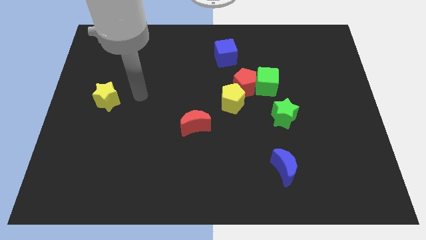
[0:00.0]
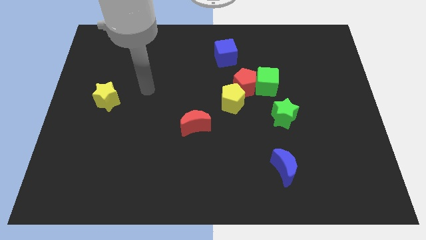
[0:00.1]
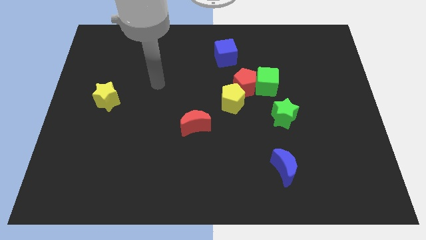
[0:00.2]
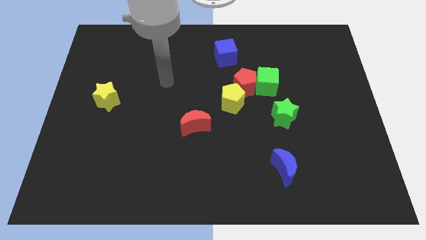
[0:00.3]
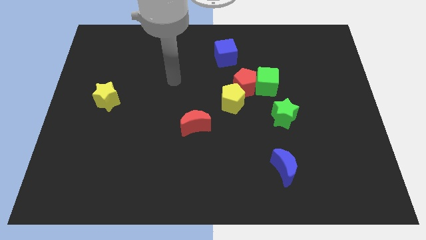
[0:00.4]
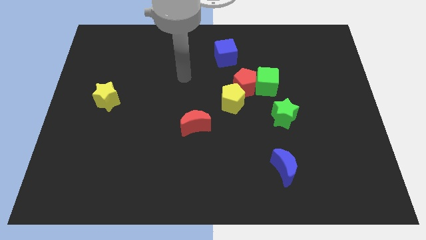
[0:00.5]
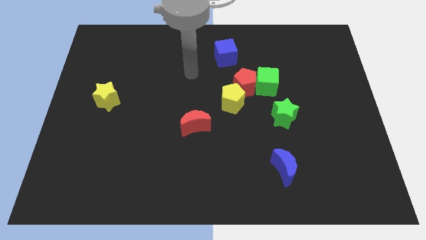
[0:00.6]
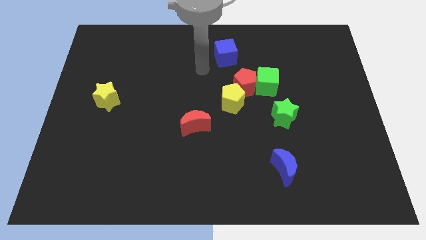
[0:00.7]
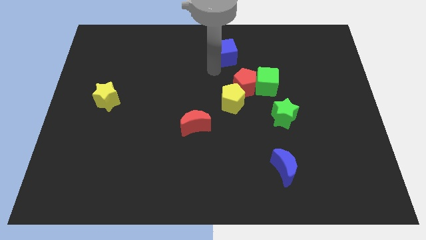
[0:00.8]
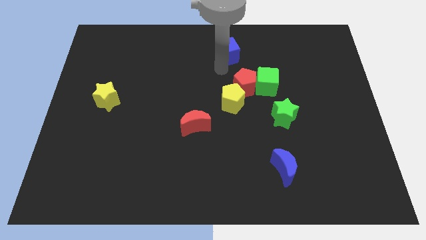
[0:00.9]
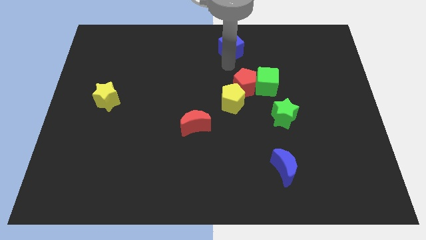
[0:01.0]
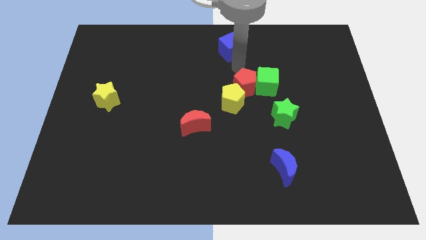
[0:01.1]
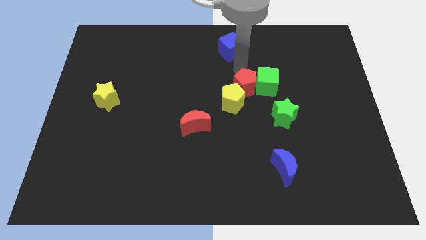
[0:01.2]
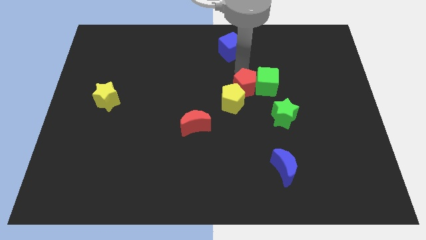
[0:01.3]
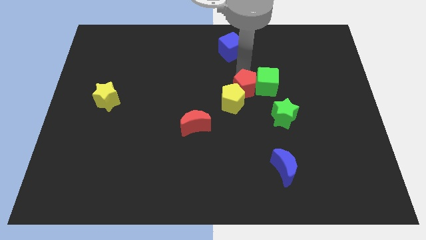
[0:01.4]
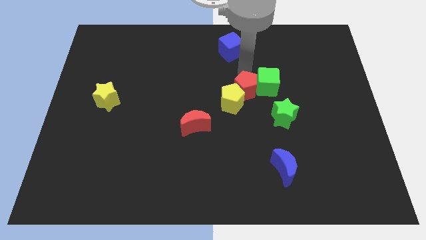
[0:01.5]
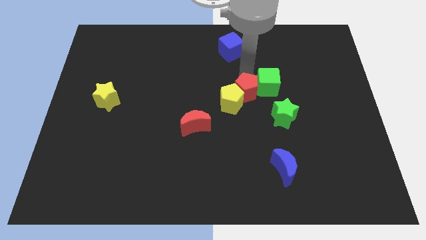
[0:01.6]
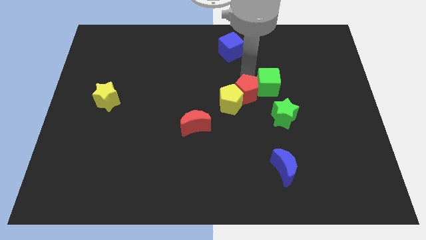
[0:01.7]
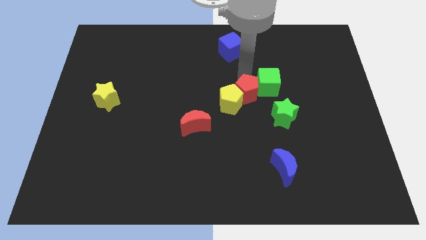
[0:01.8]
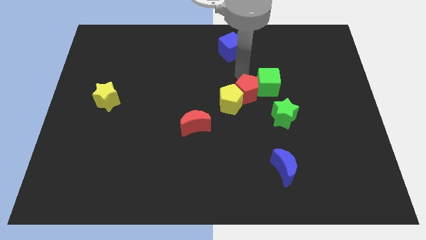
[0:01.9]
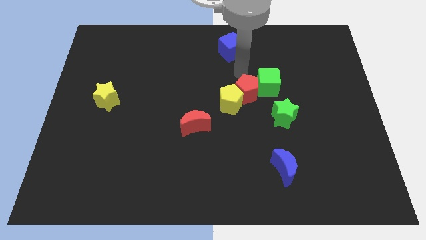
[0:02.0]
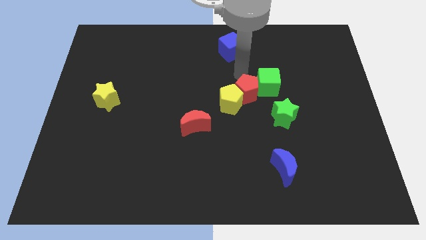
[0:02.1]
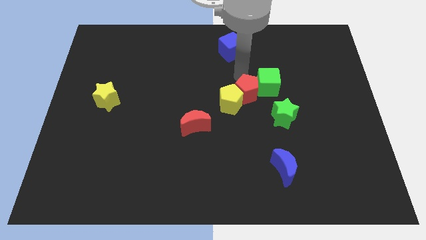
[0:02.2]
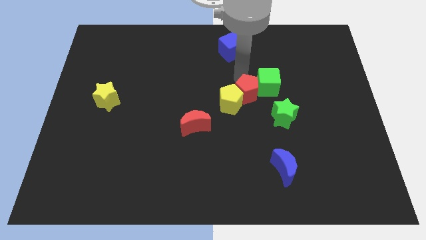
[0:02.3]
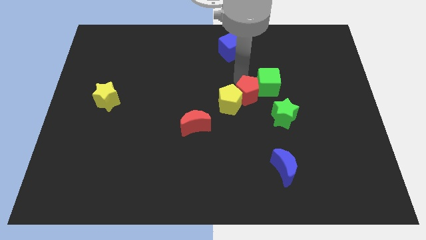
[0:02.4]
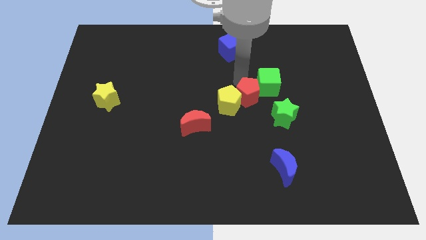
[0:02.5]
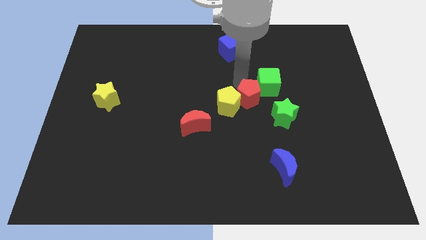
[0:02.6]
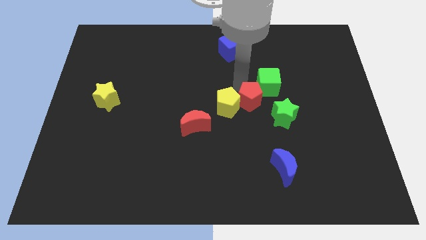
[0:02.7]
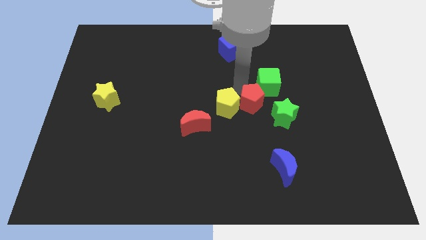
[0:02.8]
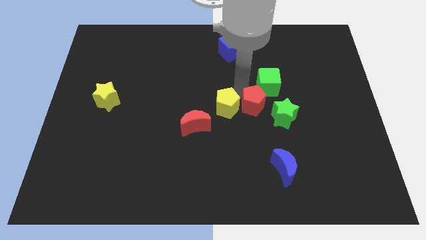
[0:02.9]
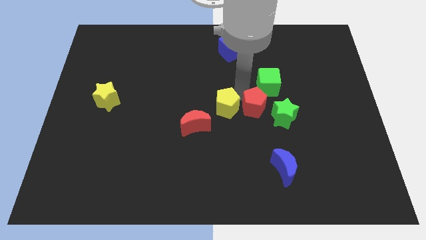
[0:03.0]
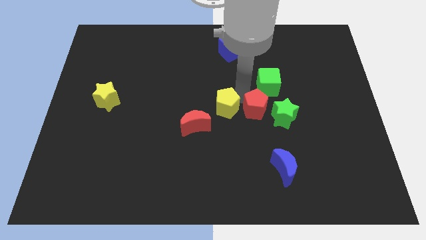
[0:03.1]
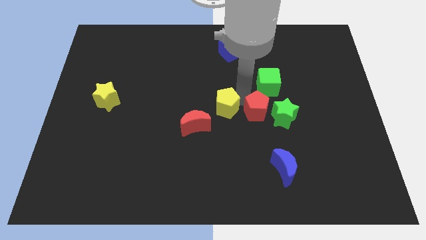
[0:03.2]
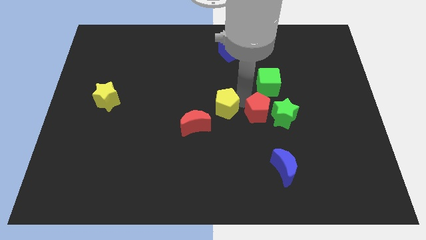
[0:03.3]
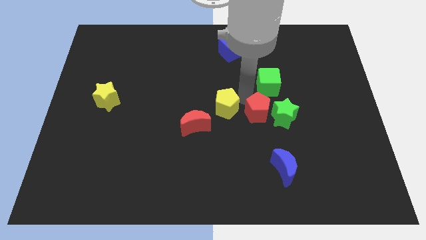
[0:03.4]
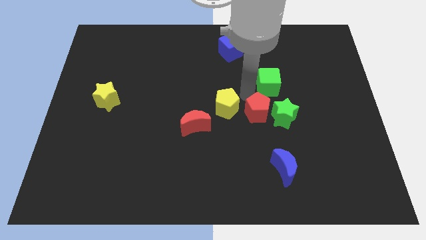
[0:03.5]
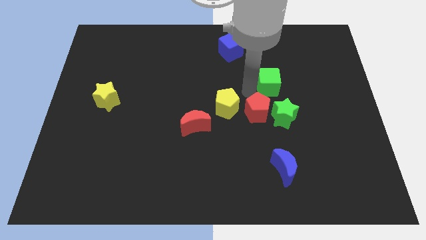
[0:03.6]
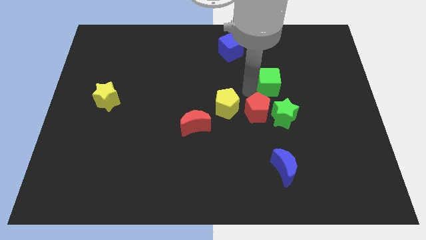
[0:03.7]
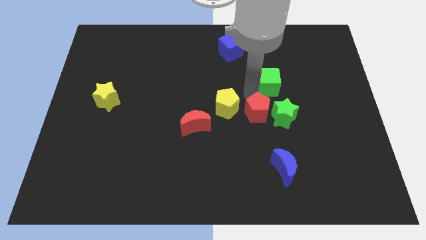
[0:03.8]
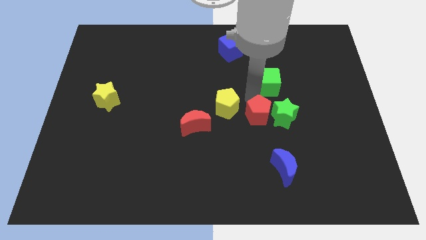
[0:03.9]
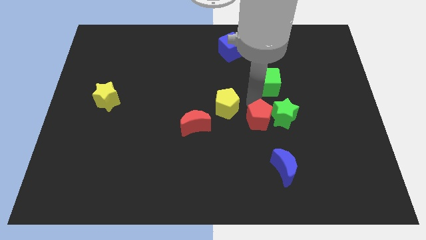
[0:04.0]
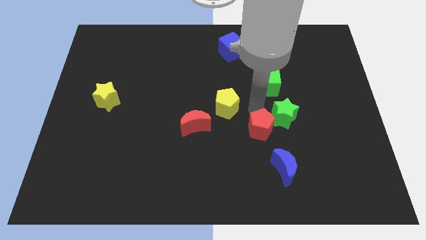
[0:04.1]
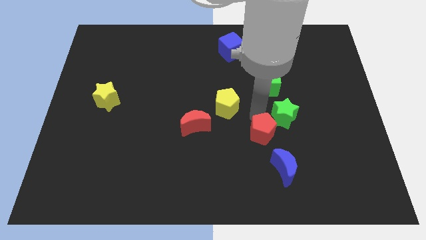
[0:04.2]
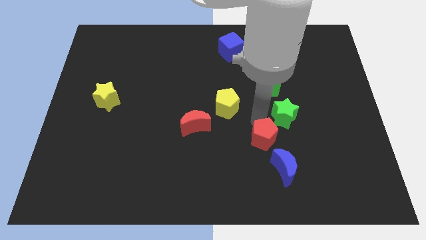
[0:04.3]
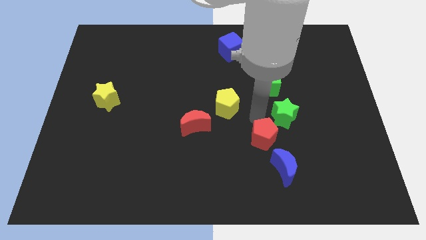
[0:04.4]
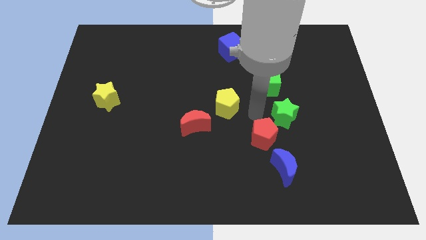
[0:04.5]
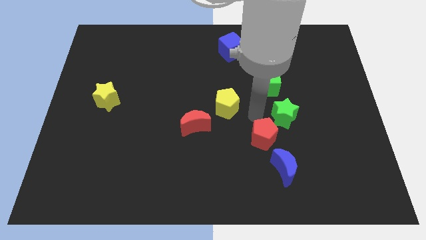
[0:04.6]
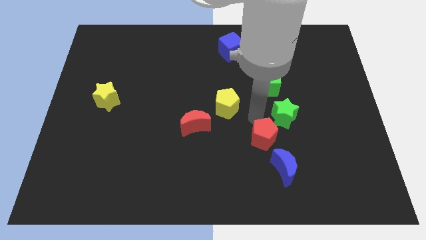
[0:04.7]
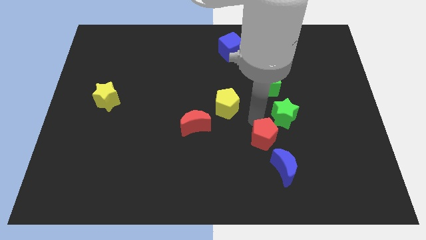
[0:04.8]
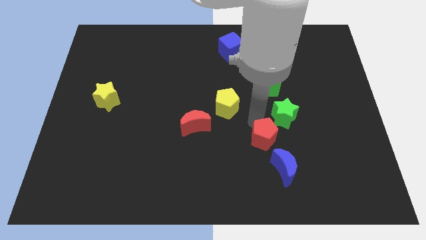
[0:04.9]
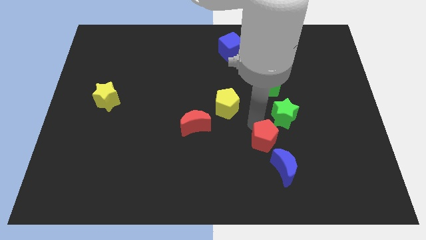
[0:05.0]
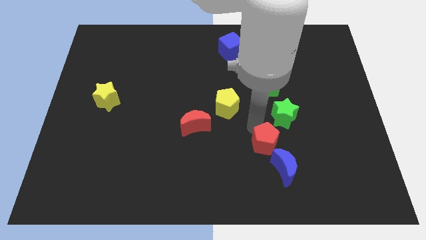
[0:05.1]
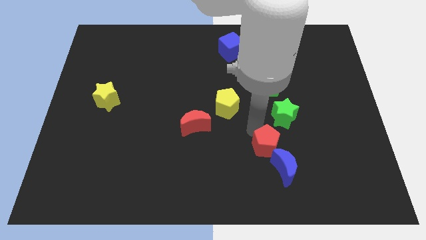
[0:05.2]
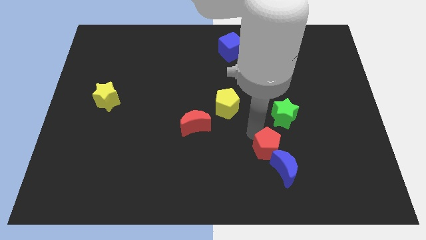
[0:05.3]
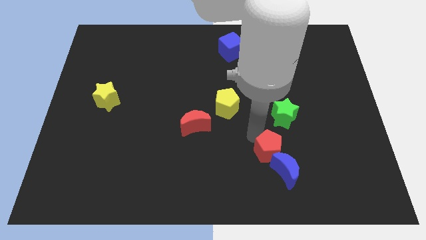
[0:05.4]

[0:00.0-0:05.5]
move the red pentagon towards the blue moon

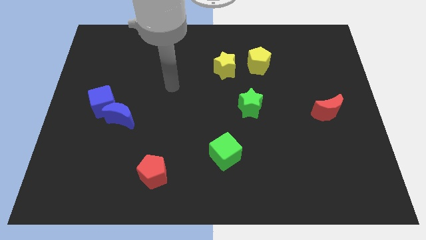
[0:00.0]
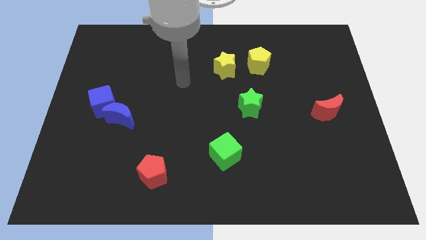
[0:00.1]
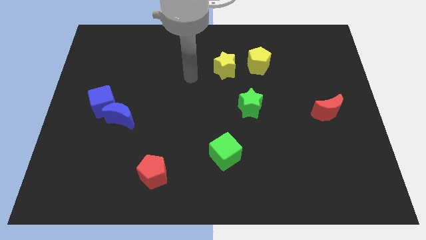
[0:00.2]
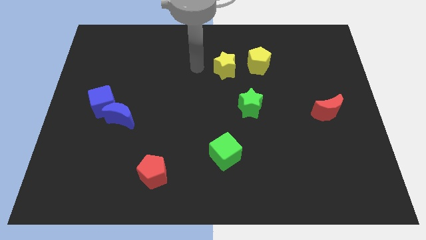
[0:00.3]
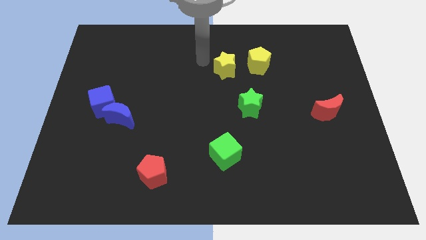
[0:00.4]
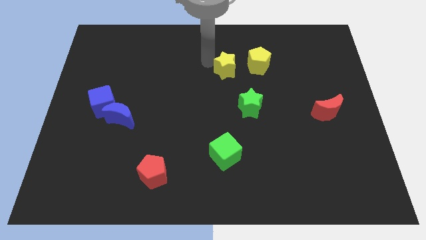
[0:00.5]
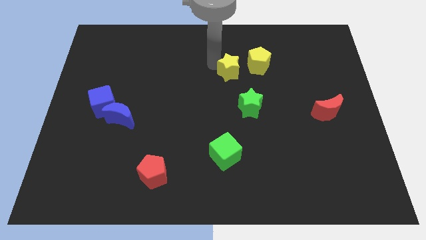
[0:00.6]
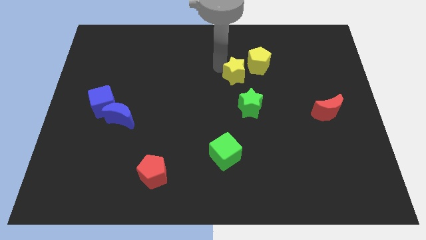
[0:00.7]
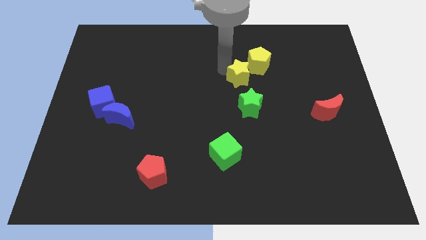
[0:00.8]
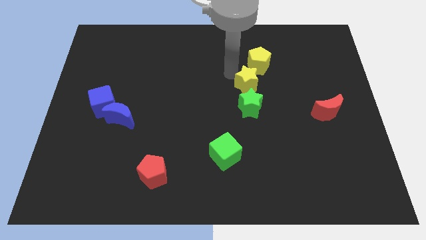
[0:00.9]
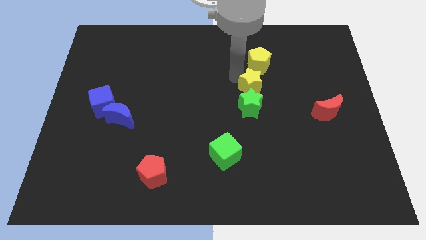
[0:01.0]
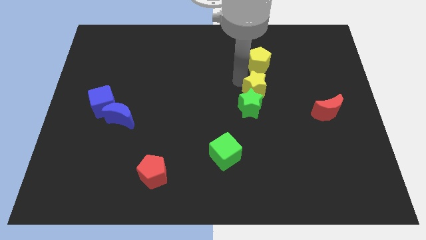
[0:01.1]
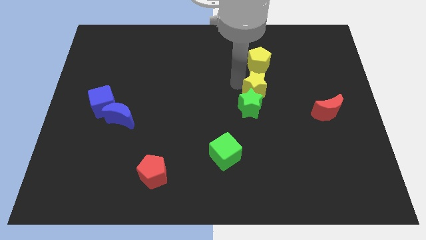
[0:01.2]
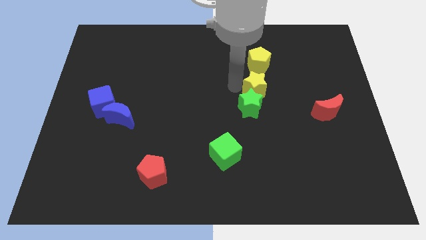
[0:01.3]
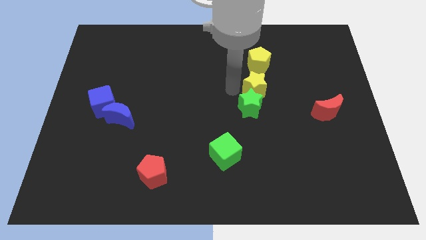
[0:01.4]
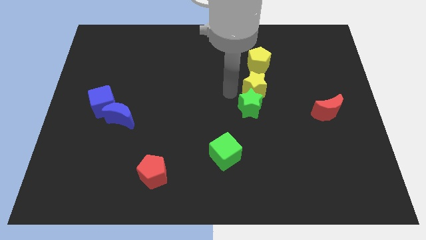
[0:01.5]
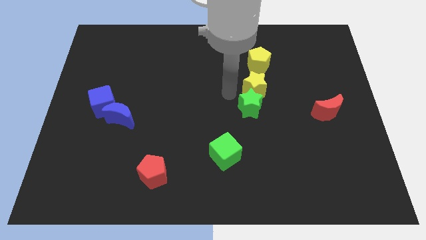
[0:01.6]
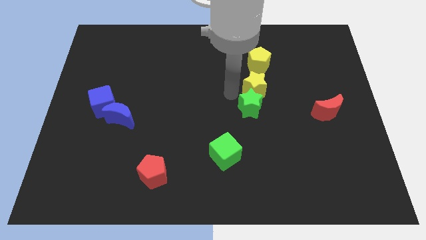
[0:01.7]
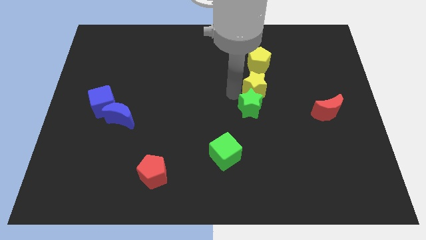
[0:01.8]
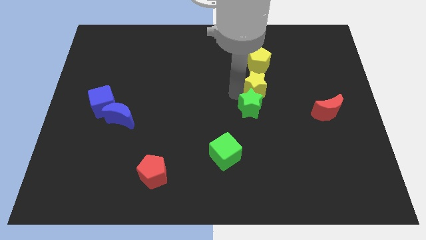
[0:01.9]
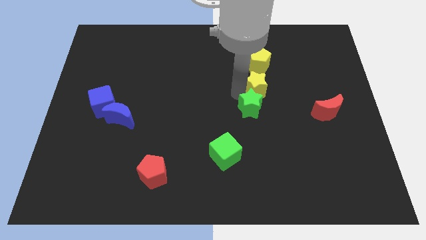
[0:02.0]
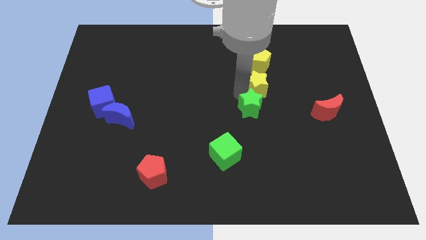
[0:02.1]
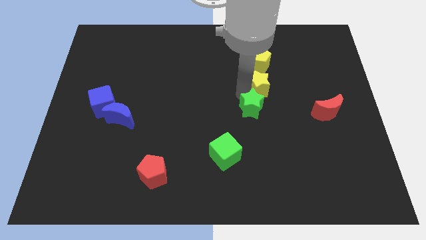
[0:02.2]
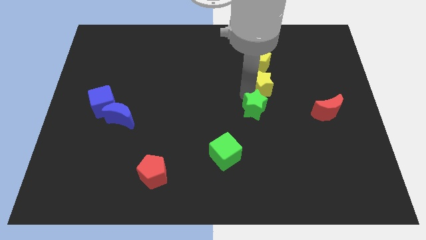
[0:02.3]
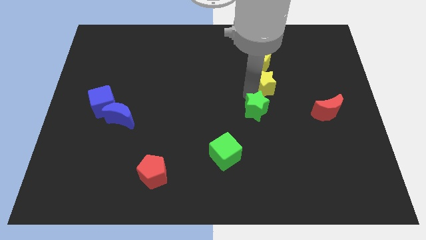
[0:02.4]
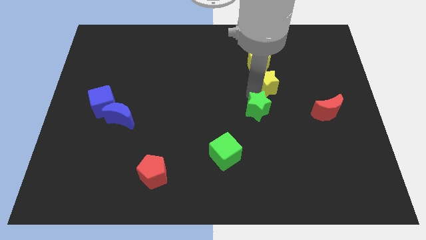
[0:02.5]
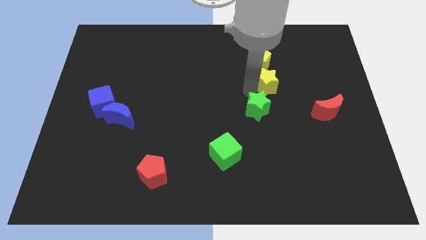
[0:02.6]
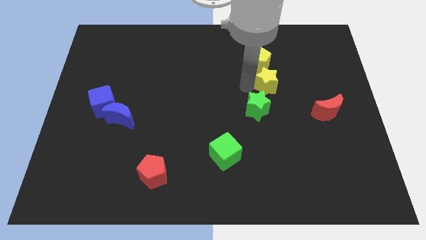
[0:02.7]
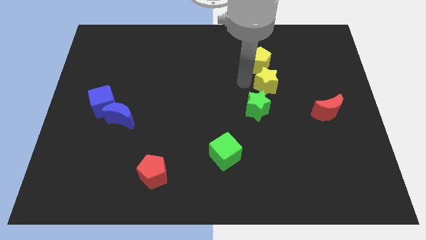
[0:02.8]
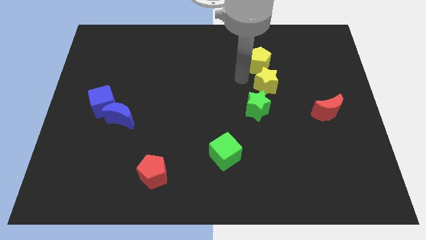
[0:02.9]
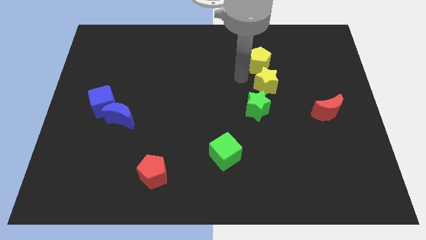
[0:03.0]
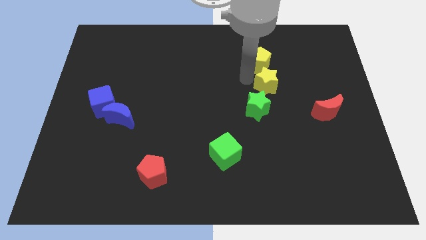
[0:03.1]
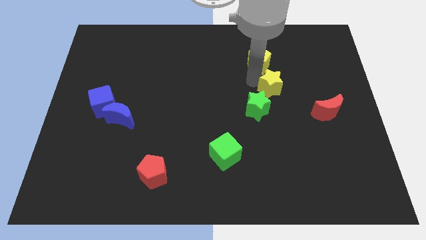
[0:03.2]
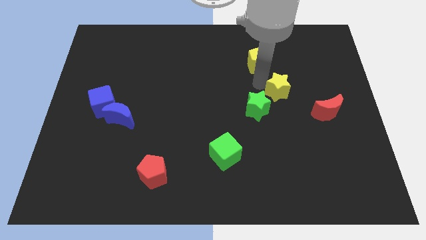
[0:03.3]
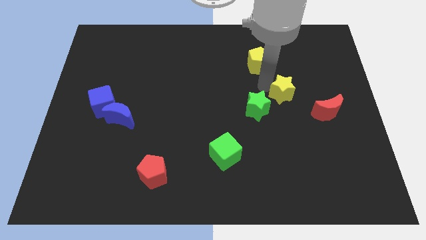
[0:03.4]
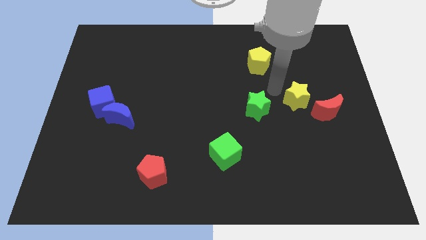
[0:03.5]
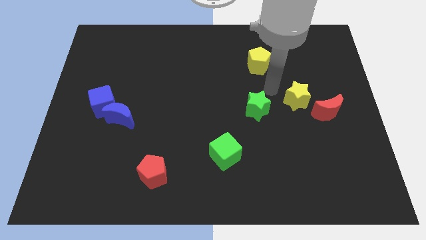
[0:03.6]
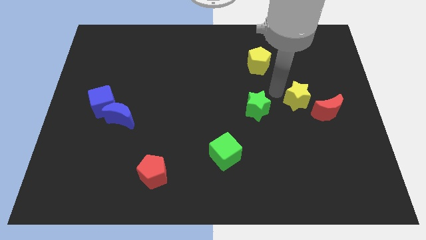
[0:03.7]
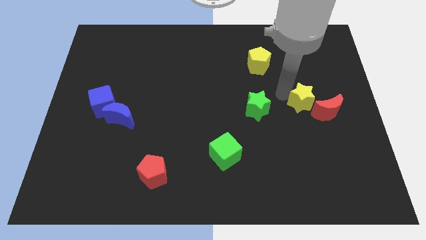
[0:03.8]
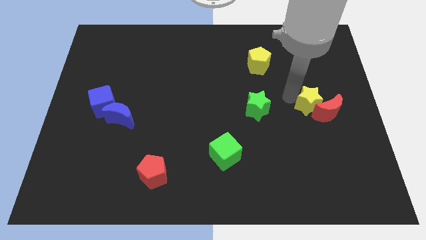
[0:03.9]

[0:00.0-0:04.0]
push the yellow star to the red moon
